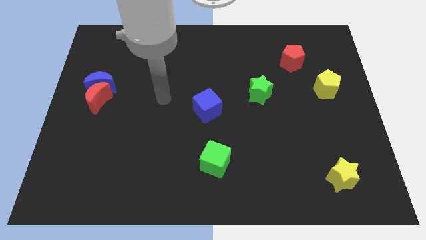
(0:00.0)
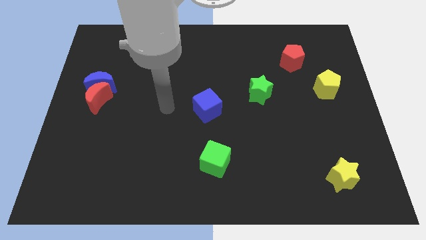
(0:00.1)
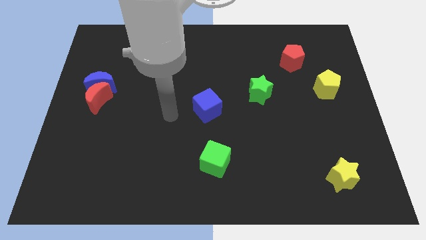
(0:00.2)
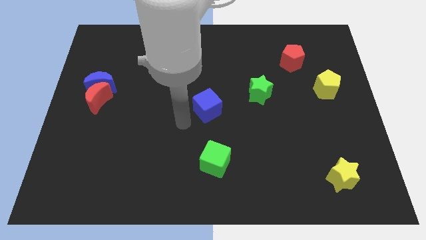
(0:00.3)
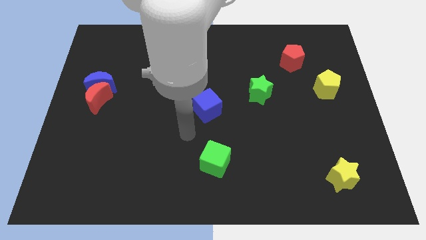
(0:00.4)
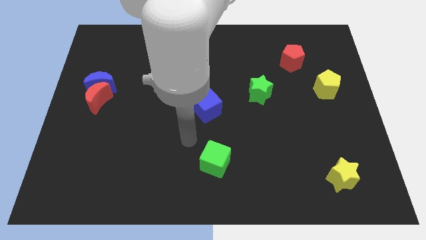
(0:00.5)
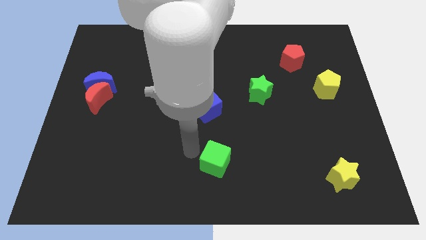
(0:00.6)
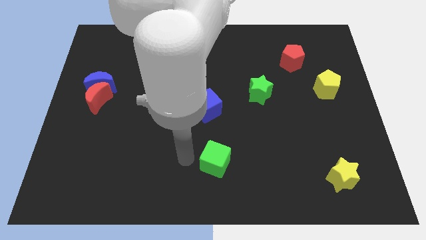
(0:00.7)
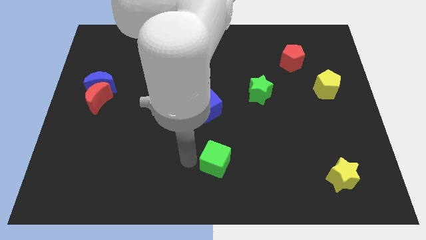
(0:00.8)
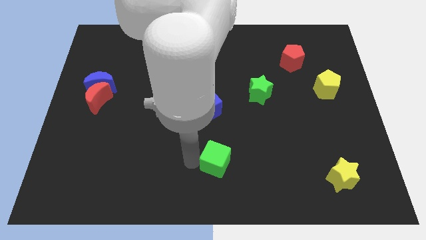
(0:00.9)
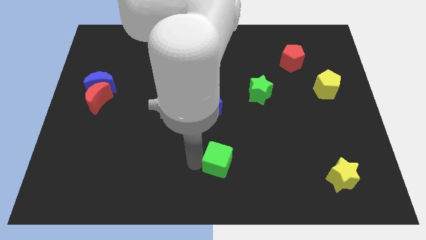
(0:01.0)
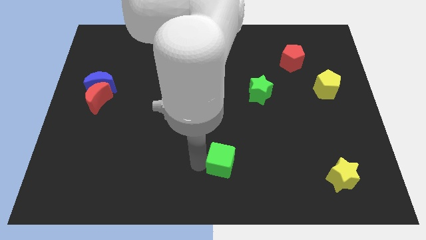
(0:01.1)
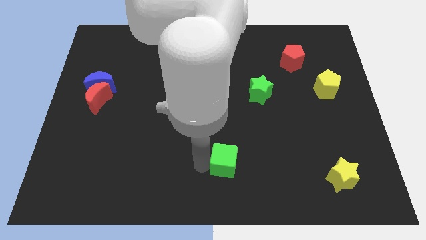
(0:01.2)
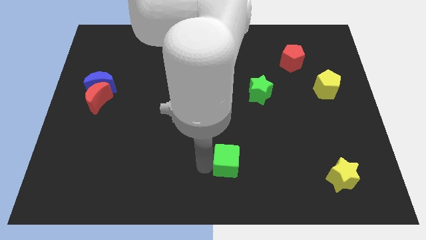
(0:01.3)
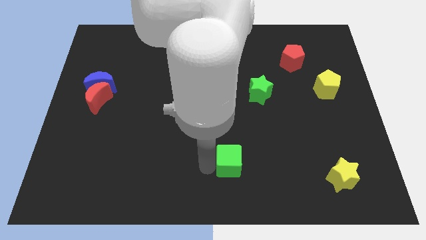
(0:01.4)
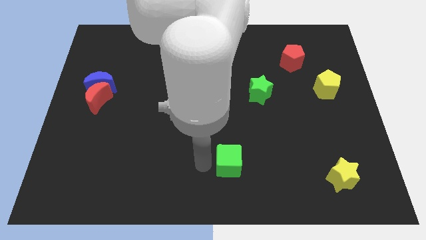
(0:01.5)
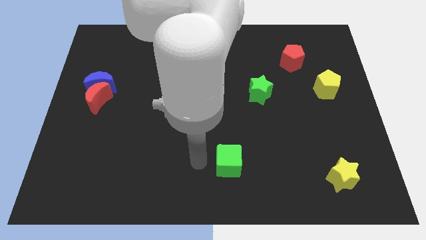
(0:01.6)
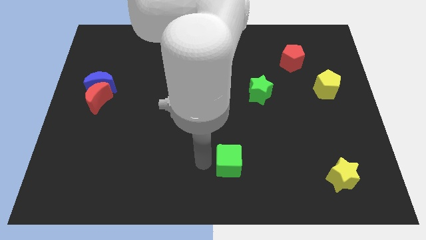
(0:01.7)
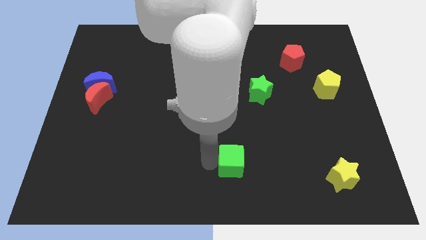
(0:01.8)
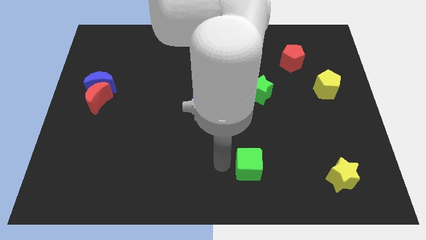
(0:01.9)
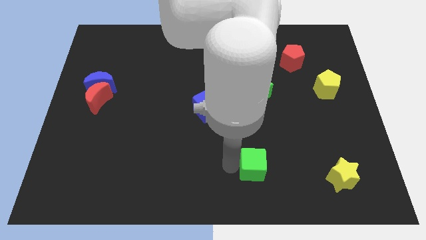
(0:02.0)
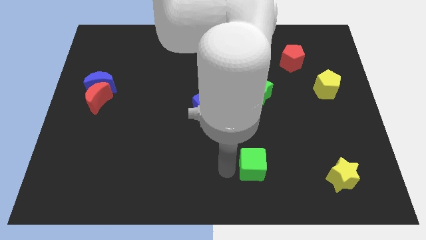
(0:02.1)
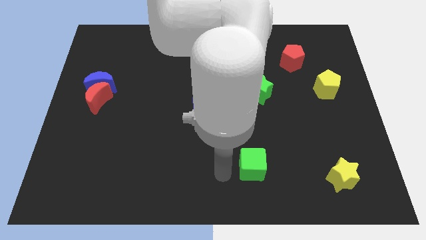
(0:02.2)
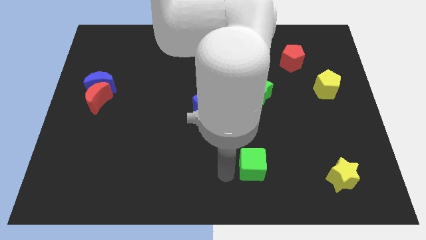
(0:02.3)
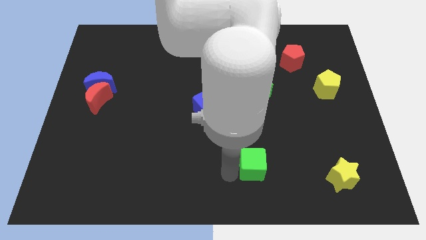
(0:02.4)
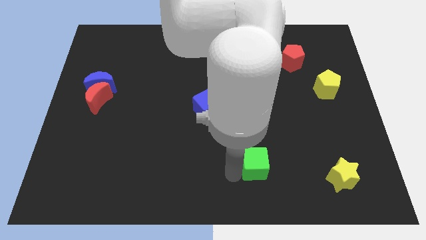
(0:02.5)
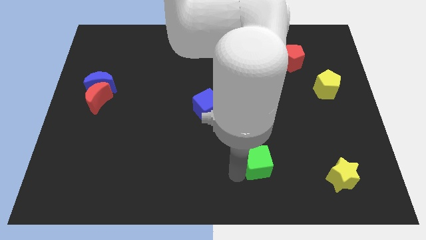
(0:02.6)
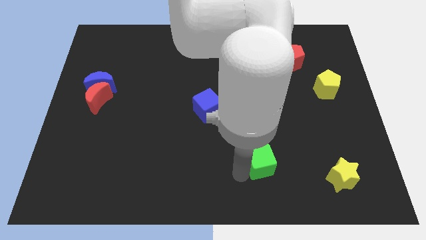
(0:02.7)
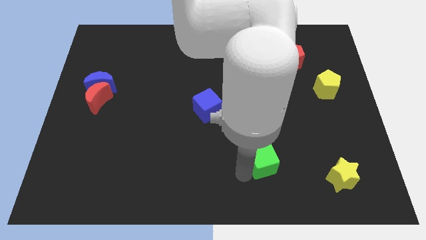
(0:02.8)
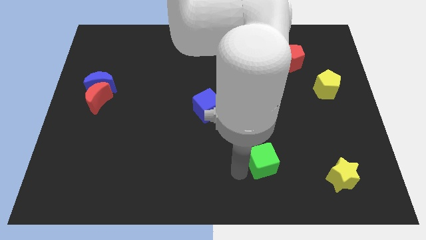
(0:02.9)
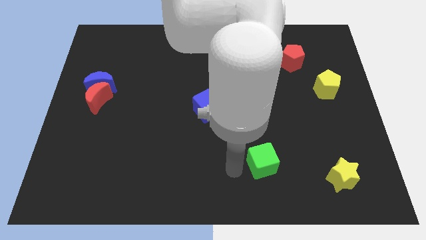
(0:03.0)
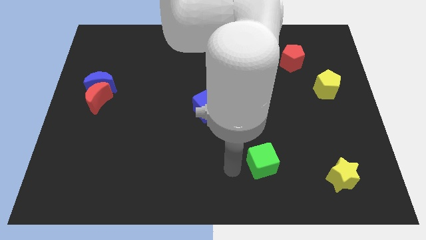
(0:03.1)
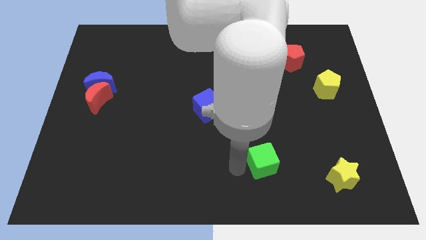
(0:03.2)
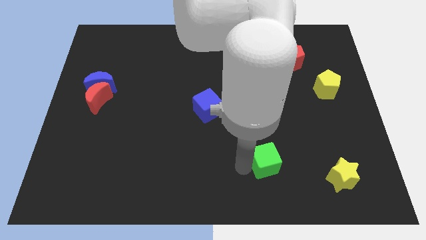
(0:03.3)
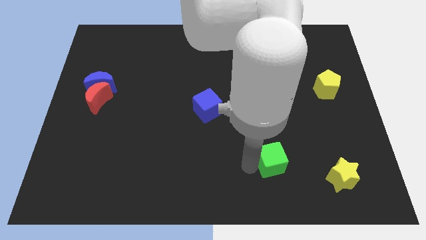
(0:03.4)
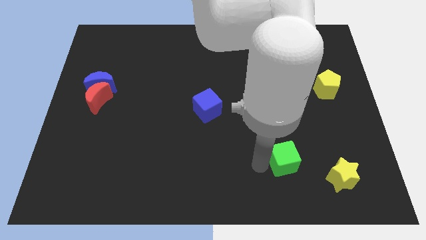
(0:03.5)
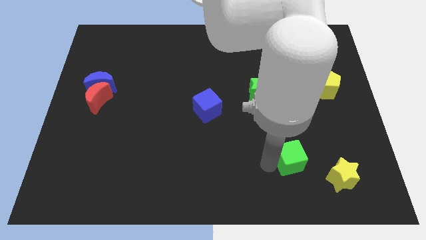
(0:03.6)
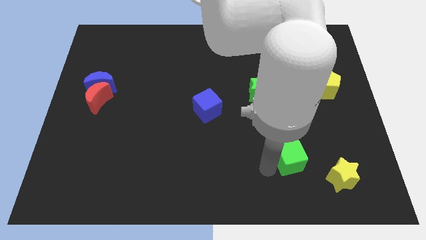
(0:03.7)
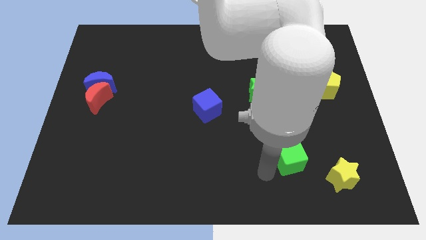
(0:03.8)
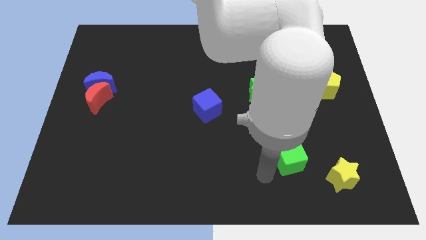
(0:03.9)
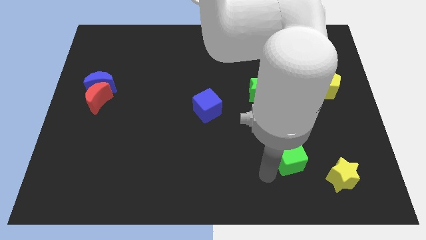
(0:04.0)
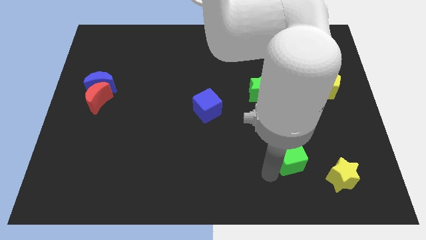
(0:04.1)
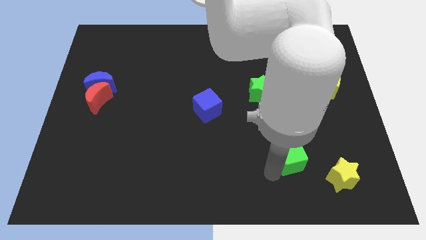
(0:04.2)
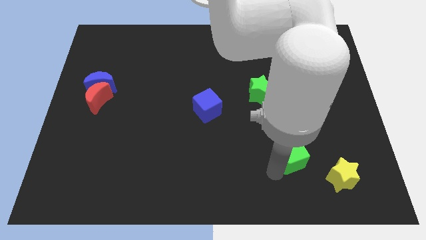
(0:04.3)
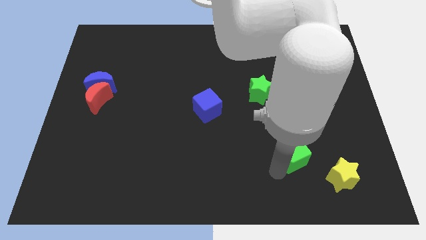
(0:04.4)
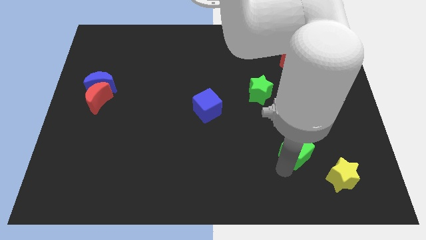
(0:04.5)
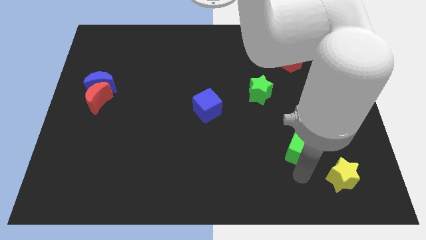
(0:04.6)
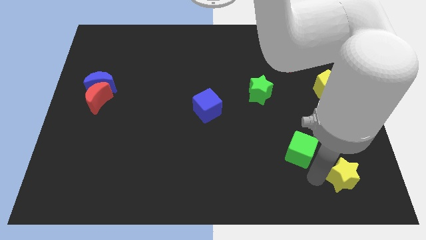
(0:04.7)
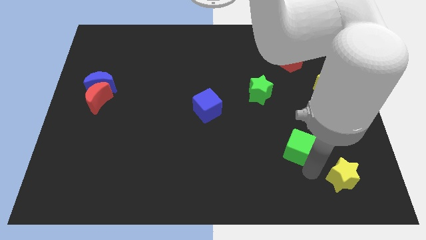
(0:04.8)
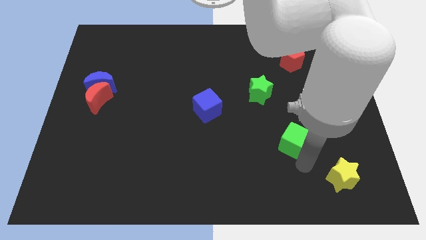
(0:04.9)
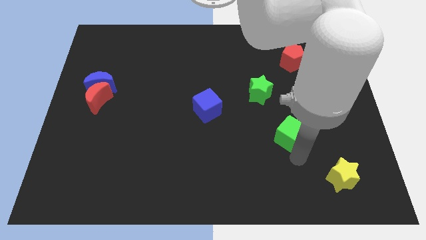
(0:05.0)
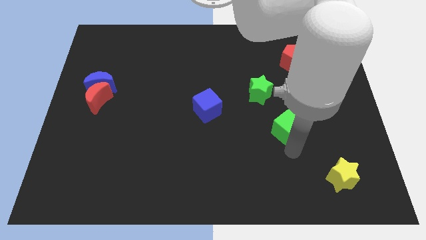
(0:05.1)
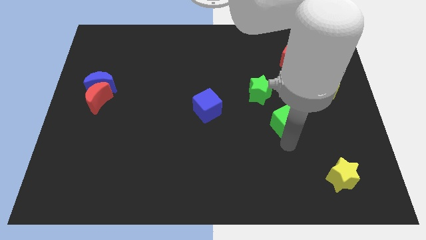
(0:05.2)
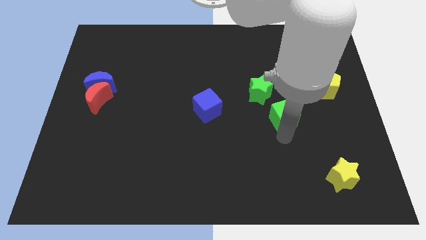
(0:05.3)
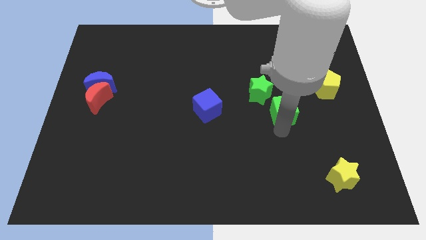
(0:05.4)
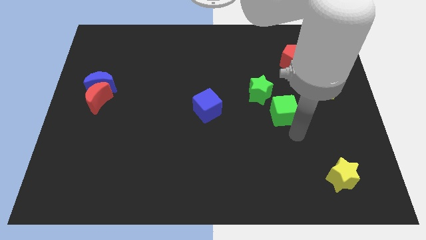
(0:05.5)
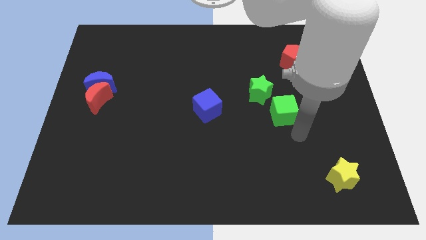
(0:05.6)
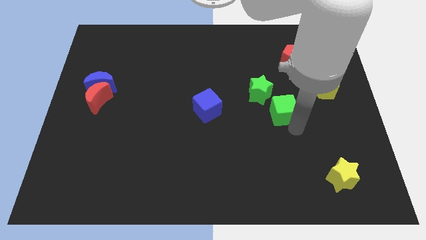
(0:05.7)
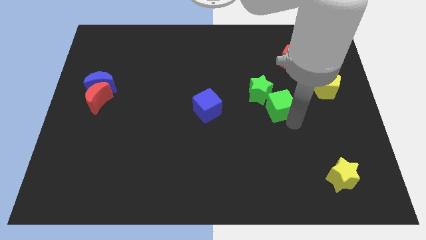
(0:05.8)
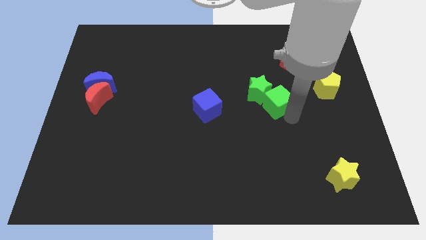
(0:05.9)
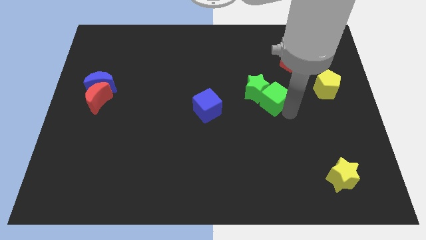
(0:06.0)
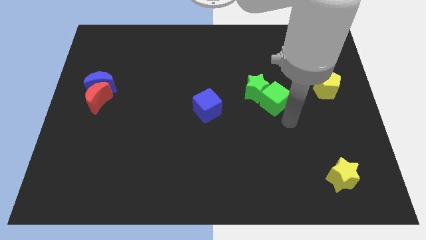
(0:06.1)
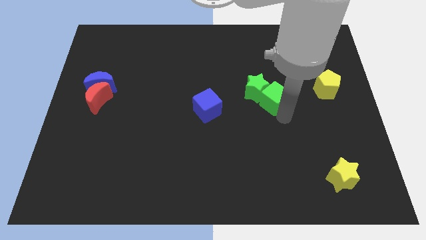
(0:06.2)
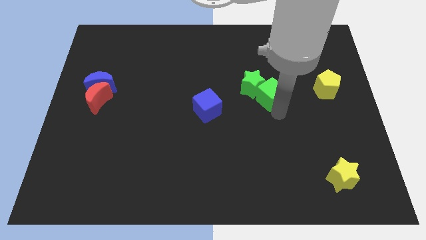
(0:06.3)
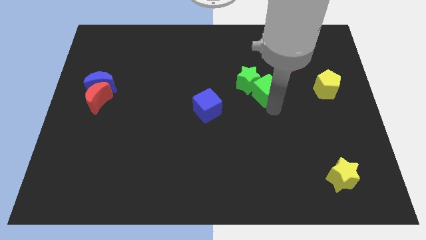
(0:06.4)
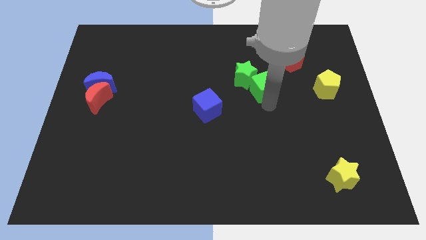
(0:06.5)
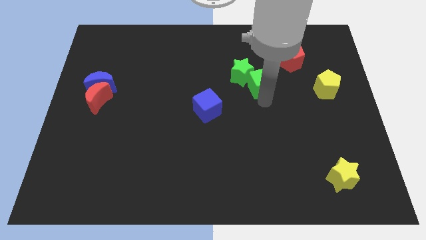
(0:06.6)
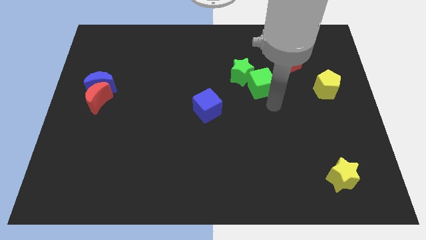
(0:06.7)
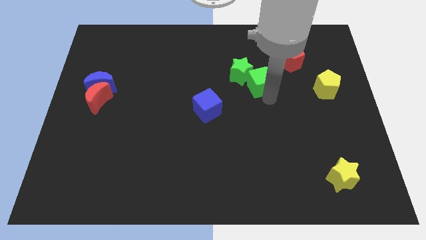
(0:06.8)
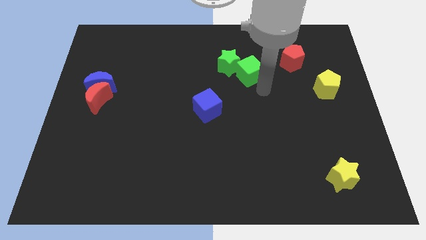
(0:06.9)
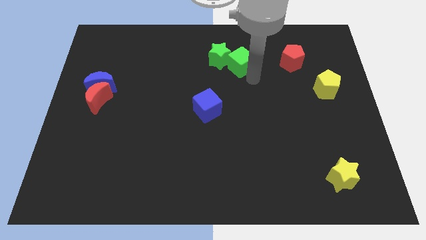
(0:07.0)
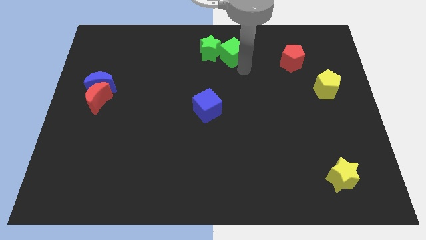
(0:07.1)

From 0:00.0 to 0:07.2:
move the green cube to the top side
